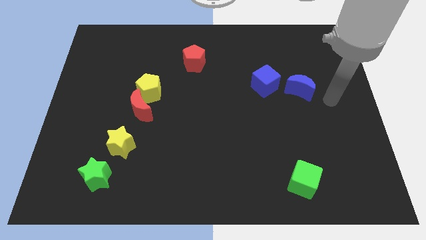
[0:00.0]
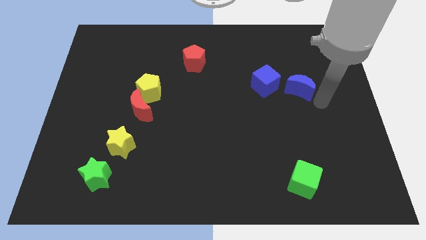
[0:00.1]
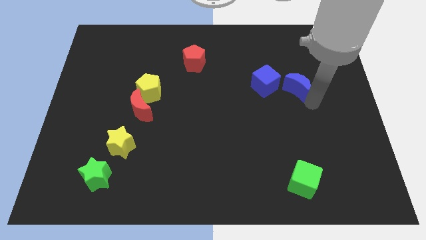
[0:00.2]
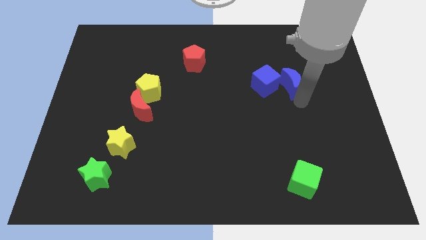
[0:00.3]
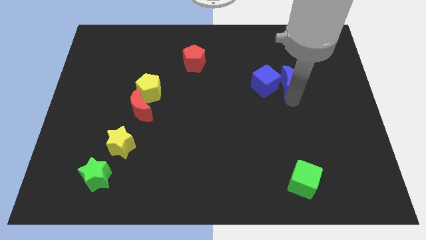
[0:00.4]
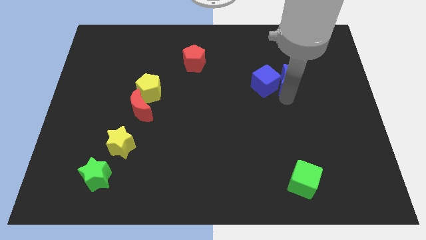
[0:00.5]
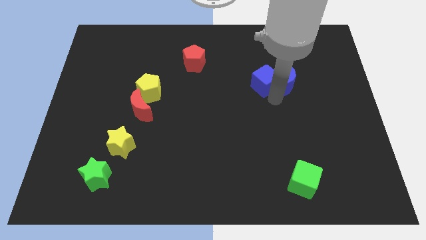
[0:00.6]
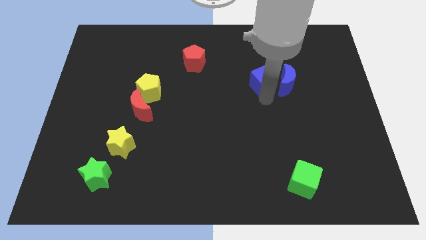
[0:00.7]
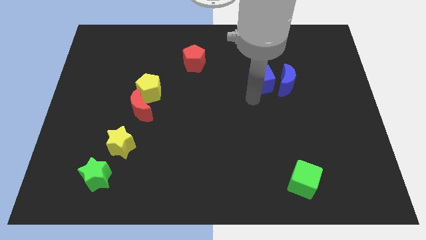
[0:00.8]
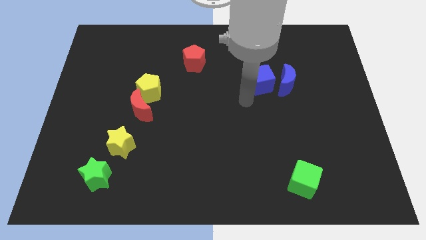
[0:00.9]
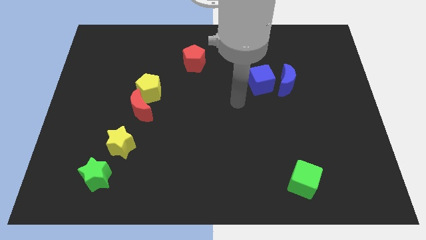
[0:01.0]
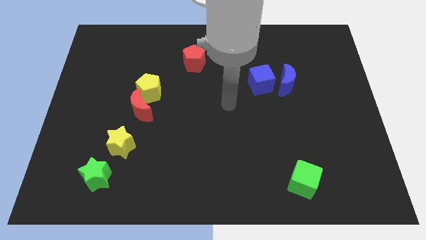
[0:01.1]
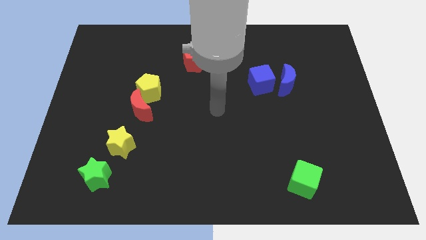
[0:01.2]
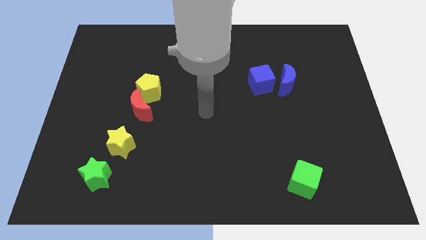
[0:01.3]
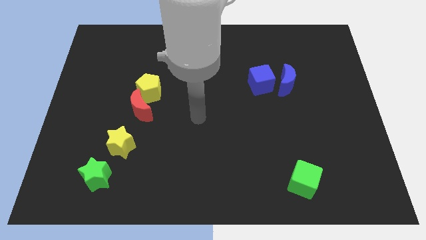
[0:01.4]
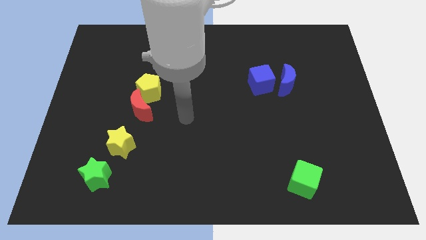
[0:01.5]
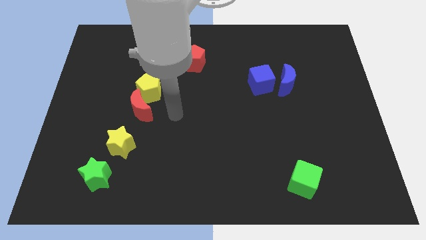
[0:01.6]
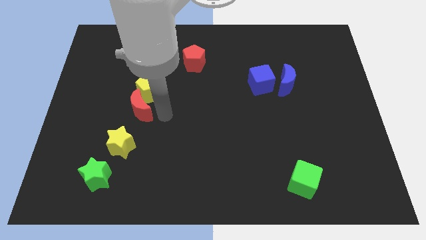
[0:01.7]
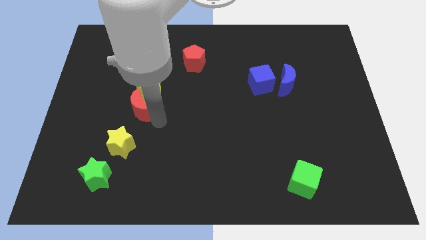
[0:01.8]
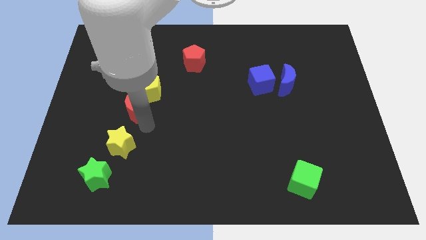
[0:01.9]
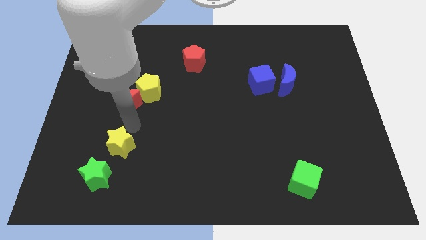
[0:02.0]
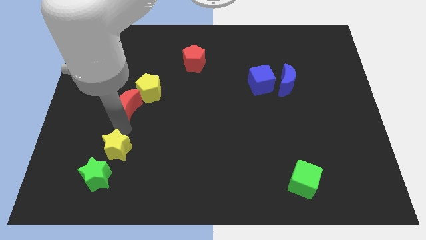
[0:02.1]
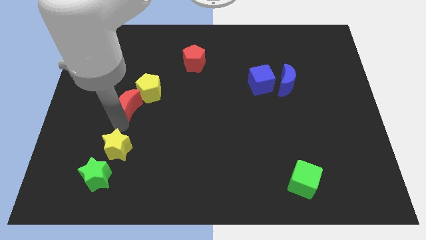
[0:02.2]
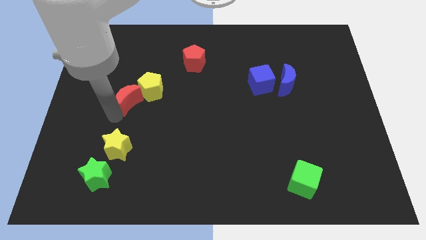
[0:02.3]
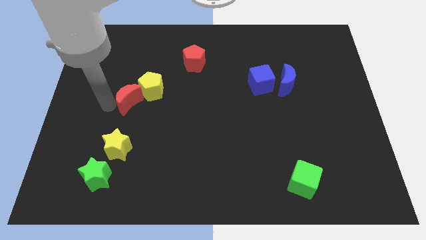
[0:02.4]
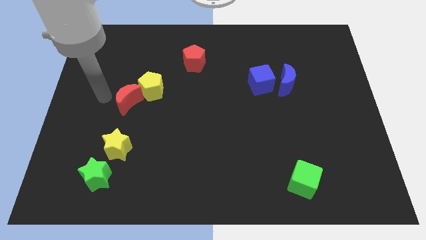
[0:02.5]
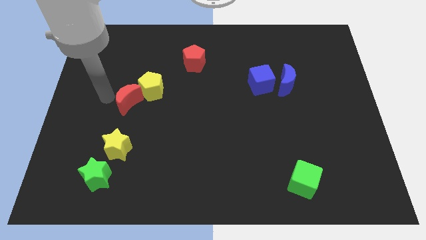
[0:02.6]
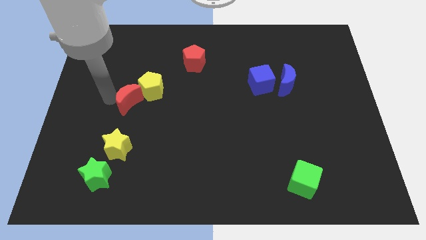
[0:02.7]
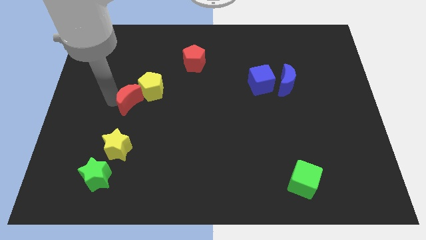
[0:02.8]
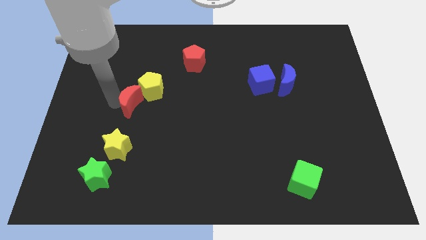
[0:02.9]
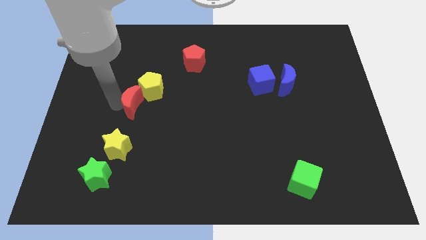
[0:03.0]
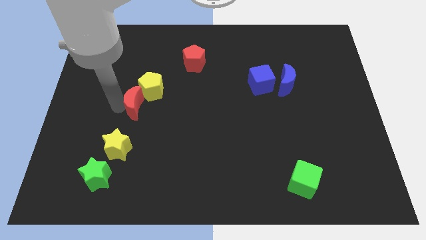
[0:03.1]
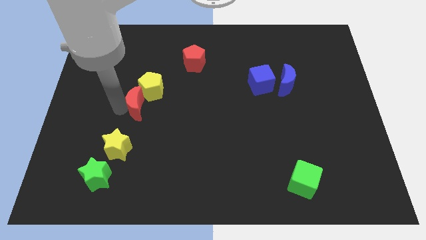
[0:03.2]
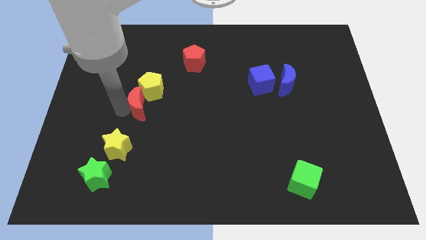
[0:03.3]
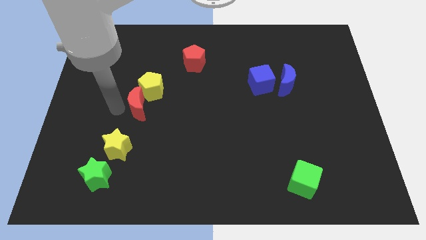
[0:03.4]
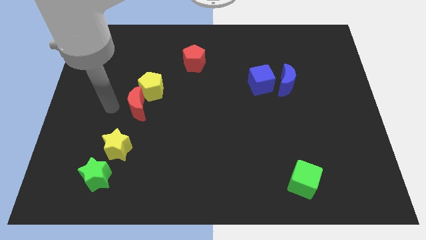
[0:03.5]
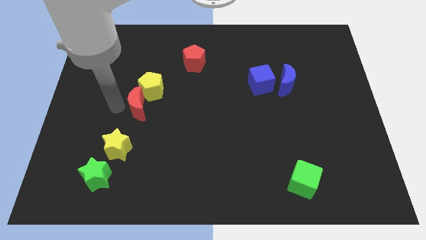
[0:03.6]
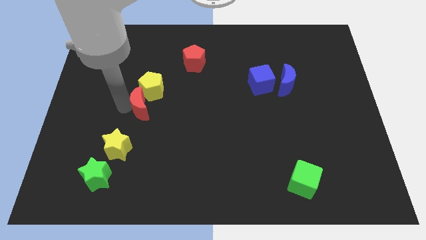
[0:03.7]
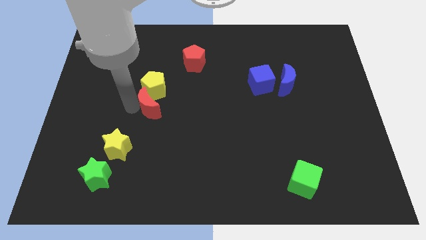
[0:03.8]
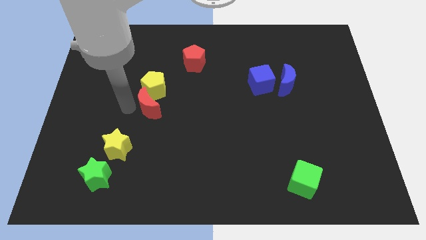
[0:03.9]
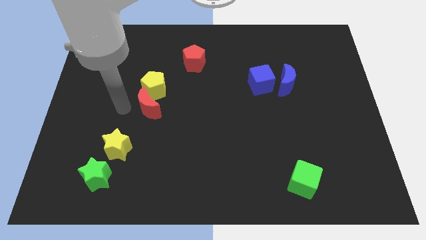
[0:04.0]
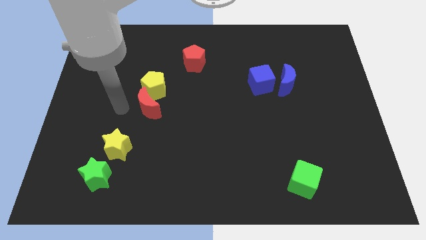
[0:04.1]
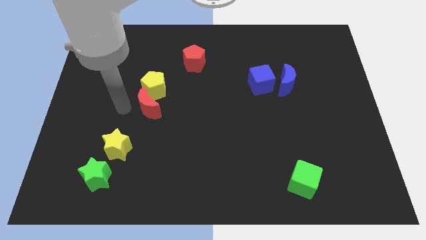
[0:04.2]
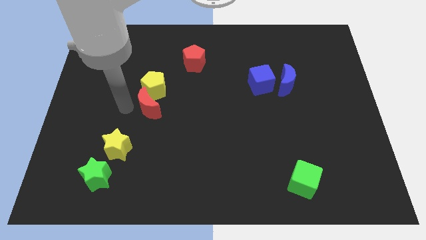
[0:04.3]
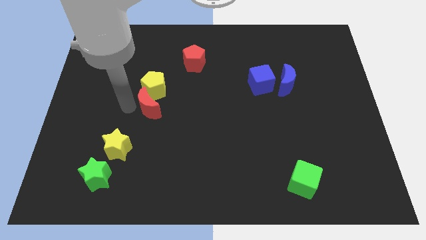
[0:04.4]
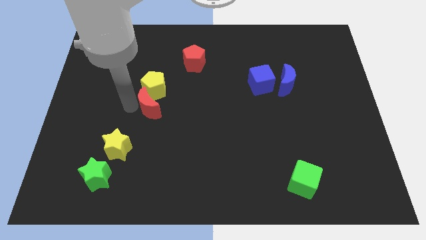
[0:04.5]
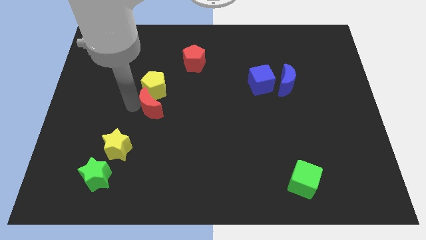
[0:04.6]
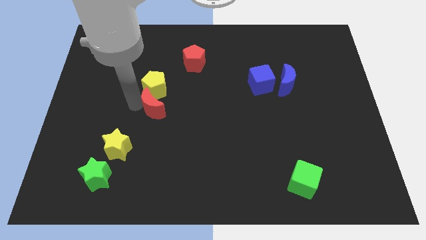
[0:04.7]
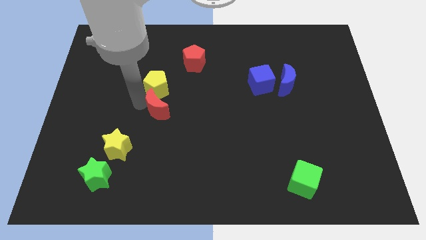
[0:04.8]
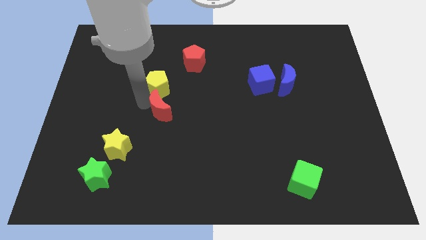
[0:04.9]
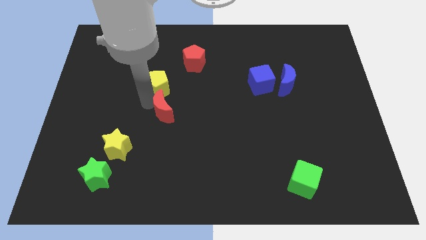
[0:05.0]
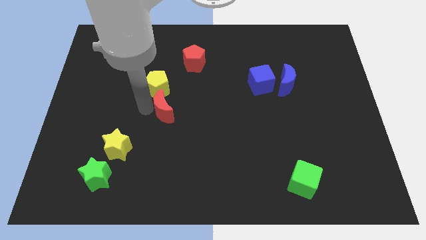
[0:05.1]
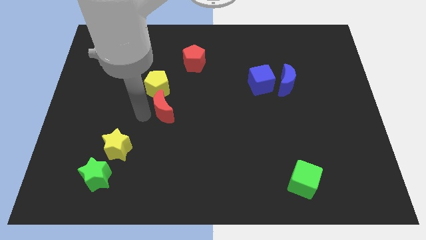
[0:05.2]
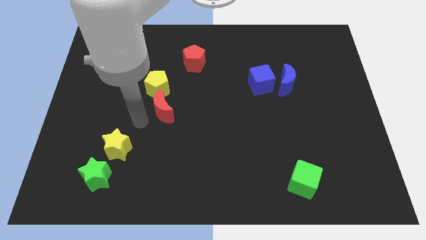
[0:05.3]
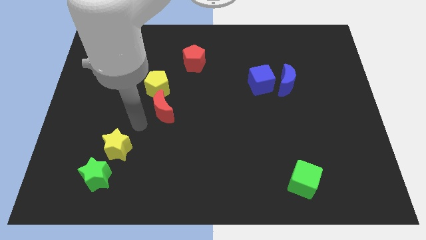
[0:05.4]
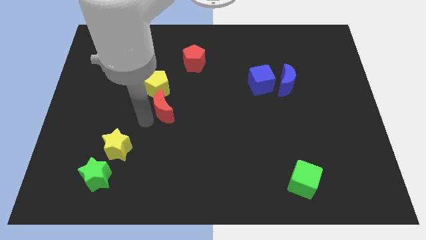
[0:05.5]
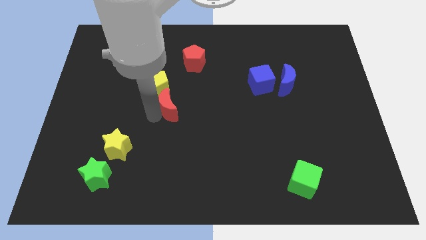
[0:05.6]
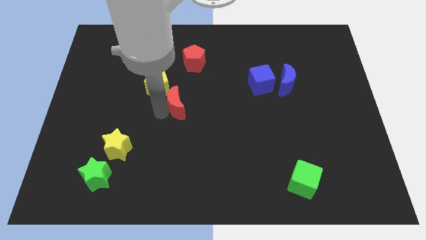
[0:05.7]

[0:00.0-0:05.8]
put the red moon to the bottom of the red pentagon
